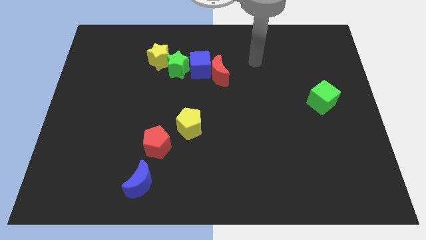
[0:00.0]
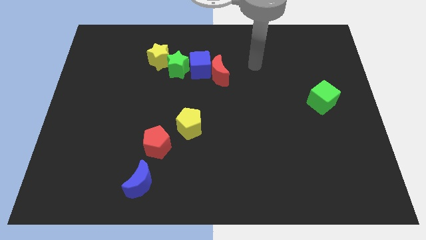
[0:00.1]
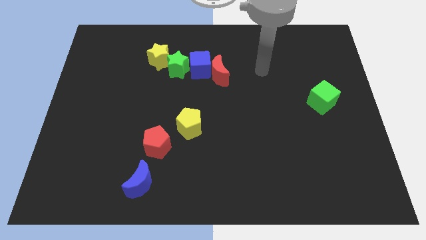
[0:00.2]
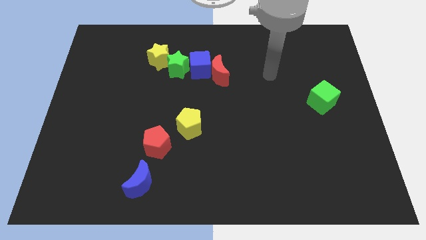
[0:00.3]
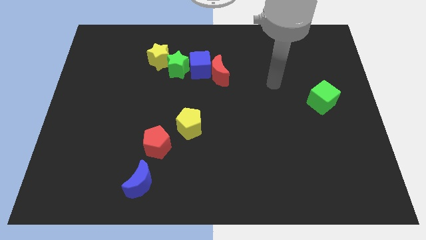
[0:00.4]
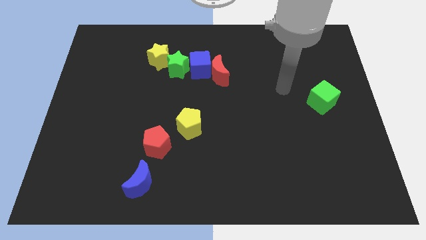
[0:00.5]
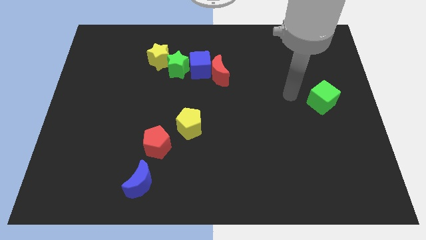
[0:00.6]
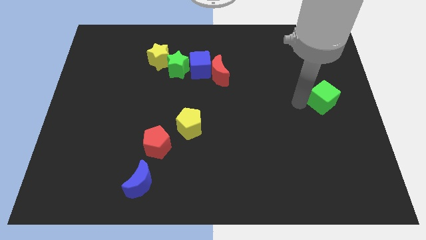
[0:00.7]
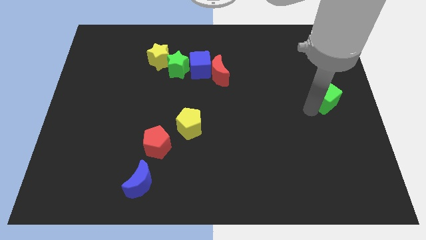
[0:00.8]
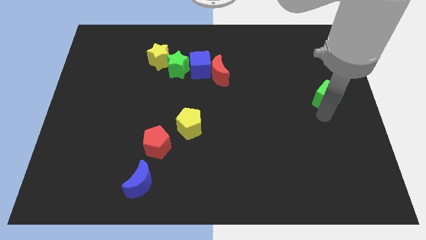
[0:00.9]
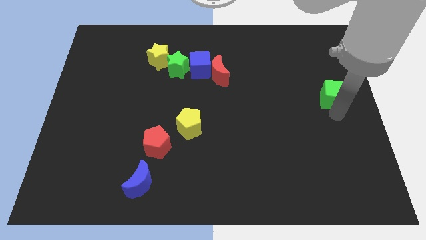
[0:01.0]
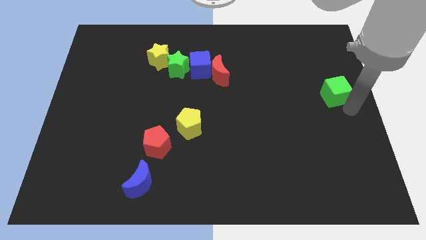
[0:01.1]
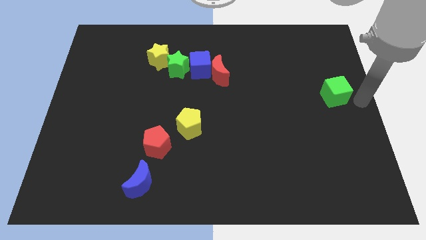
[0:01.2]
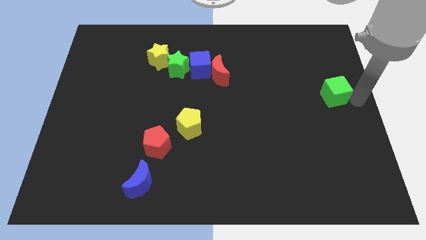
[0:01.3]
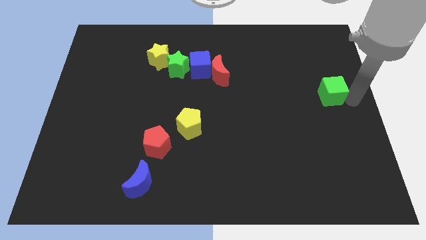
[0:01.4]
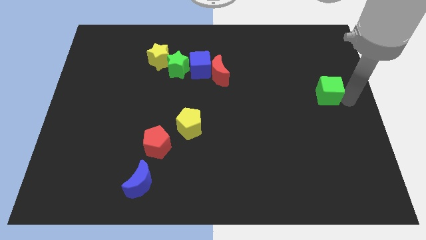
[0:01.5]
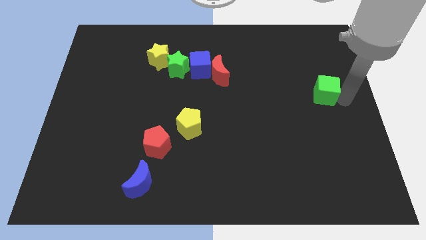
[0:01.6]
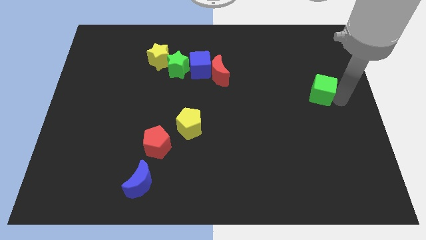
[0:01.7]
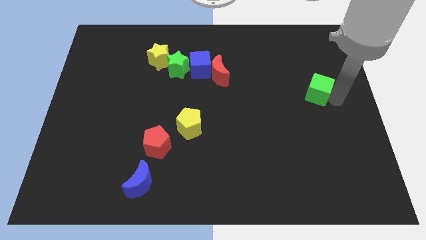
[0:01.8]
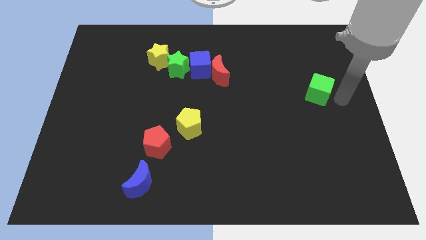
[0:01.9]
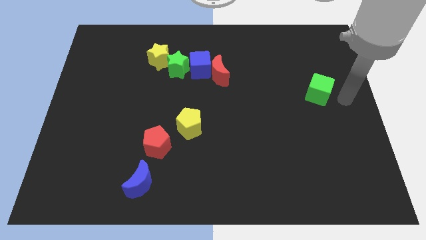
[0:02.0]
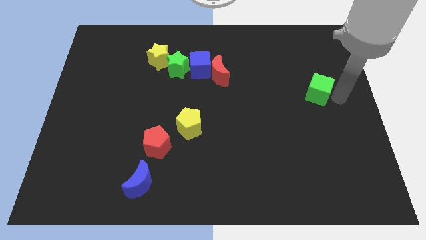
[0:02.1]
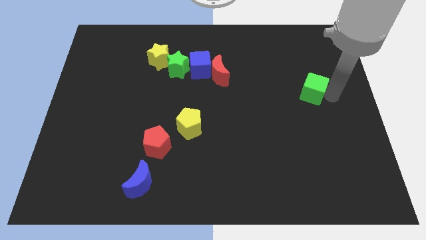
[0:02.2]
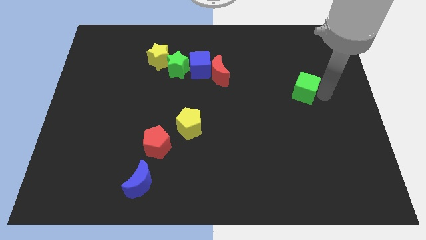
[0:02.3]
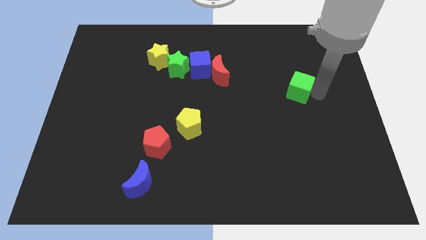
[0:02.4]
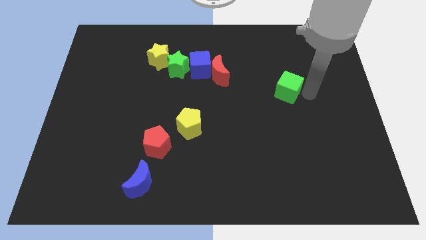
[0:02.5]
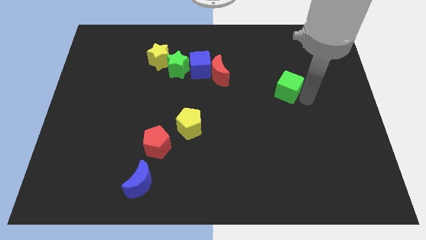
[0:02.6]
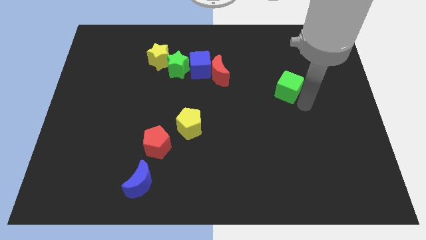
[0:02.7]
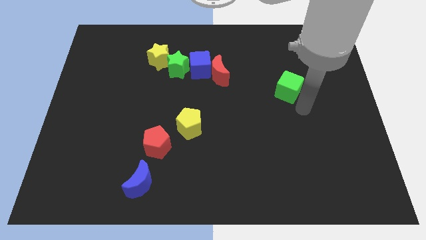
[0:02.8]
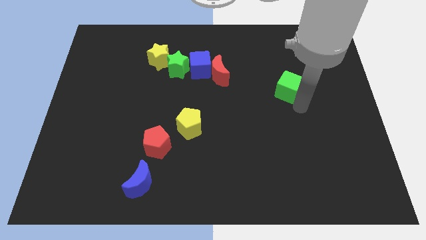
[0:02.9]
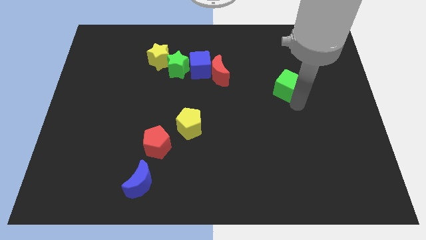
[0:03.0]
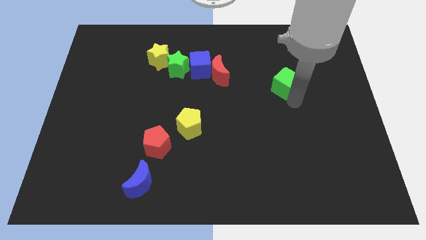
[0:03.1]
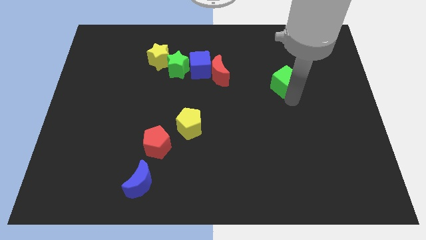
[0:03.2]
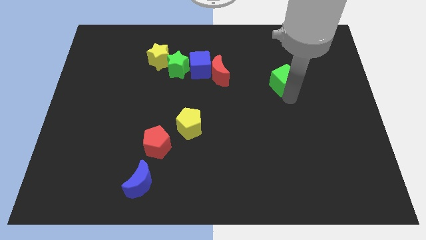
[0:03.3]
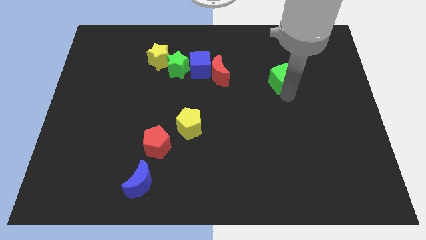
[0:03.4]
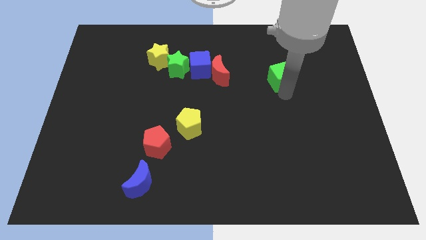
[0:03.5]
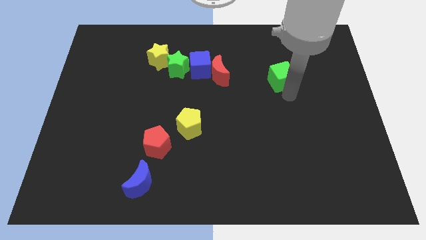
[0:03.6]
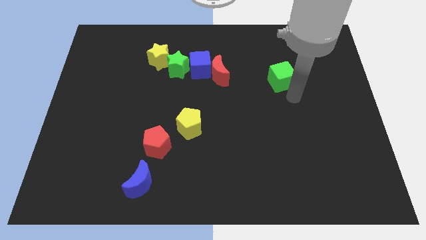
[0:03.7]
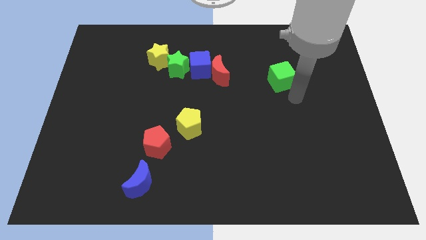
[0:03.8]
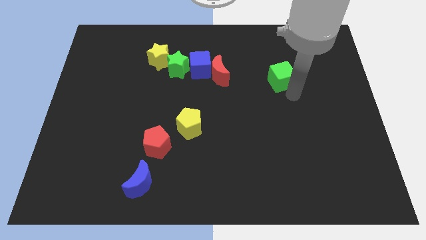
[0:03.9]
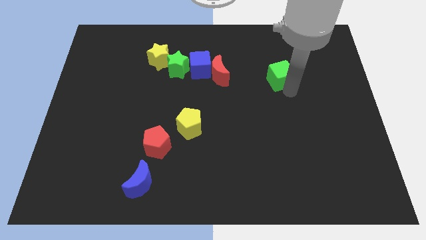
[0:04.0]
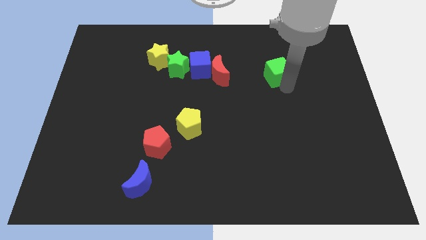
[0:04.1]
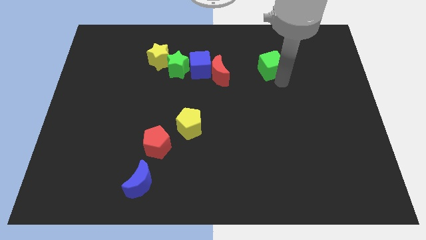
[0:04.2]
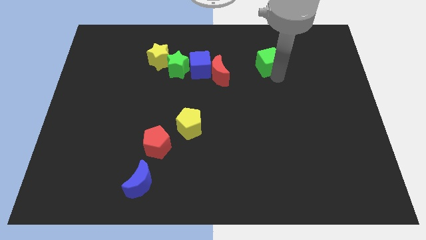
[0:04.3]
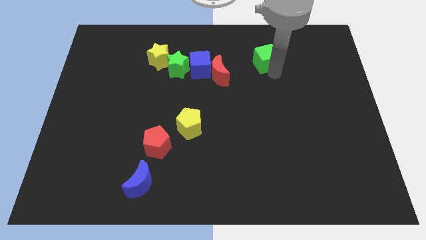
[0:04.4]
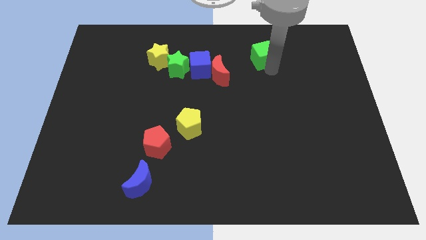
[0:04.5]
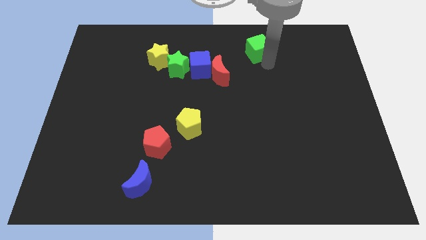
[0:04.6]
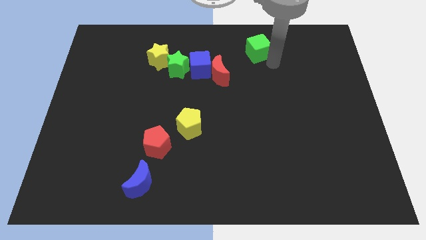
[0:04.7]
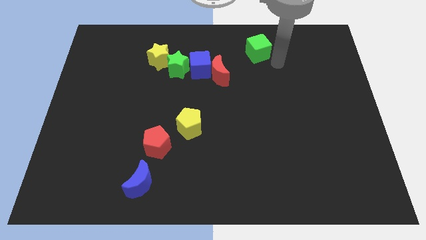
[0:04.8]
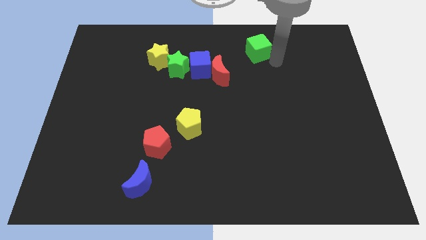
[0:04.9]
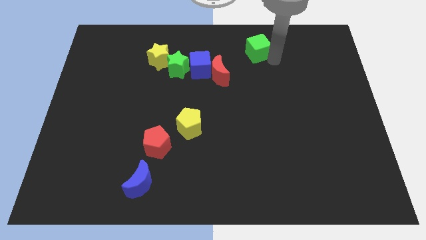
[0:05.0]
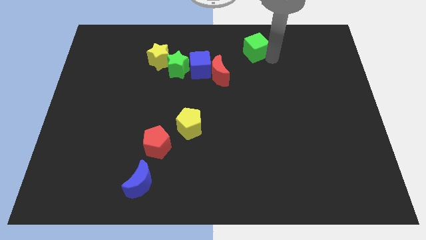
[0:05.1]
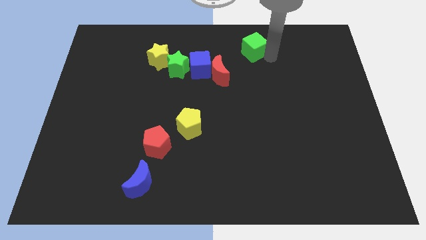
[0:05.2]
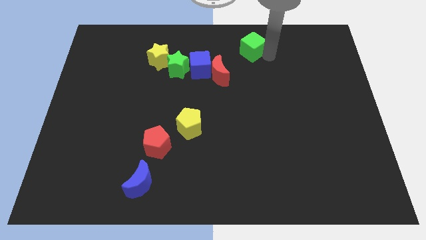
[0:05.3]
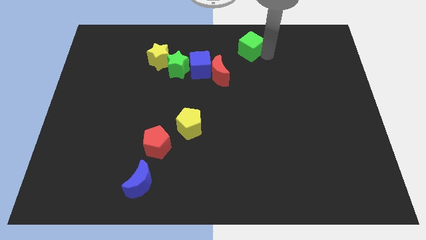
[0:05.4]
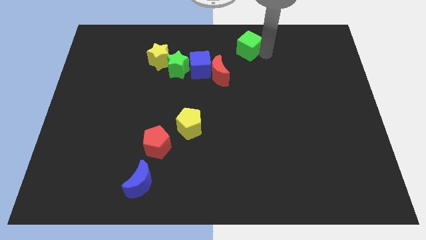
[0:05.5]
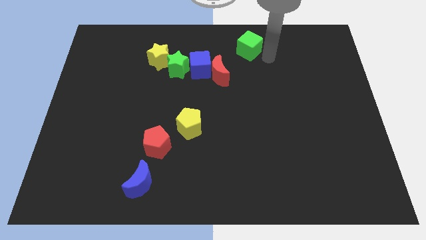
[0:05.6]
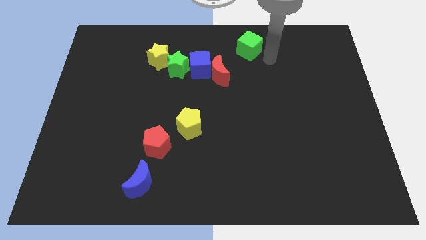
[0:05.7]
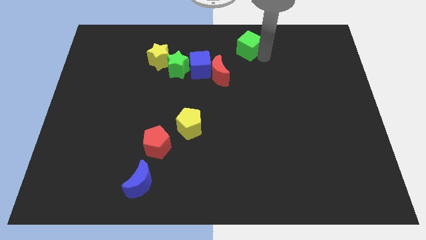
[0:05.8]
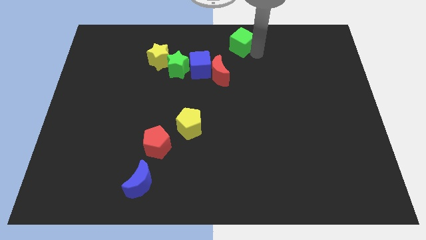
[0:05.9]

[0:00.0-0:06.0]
move the green cube to the top side

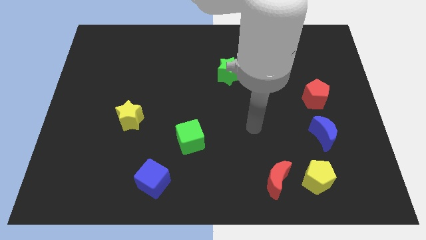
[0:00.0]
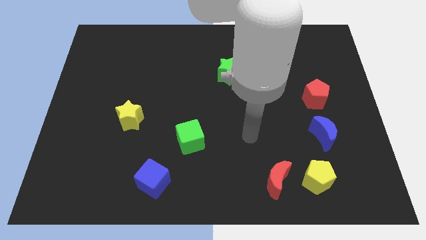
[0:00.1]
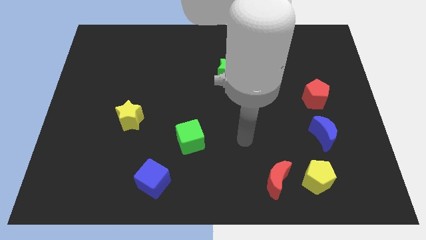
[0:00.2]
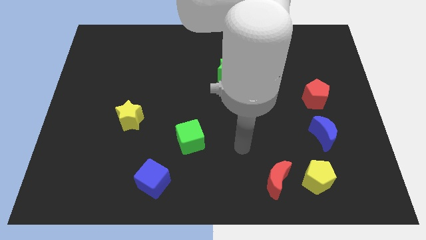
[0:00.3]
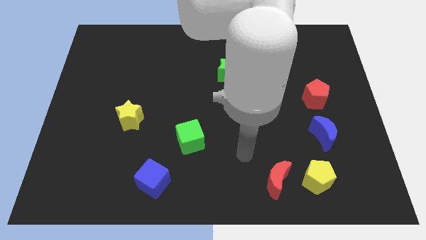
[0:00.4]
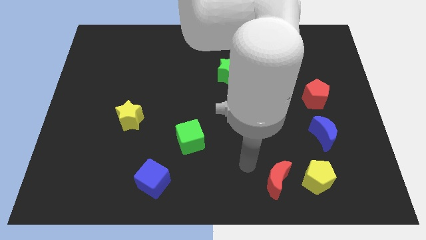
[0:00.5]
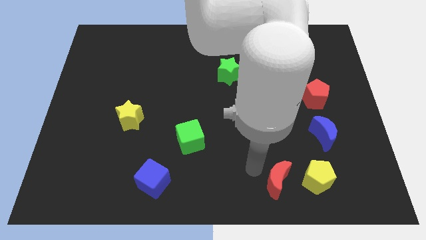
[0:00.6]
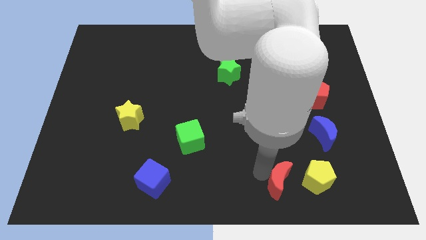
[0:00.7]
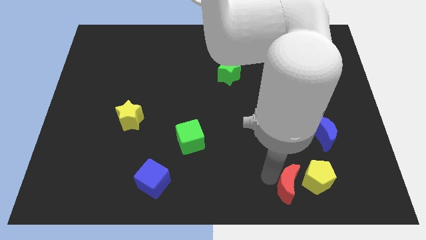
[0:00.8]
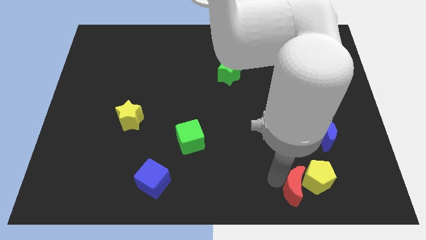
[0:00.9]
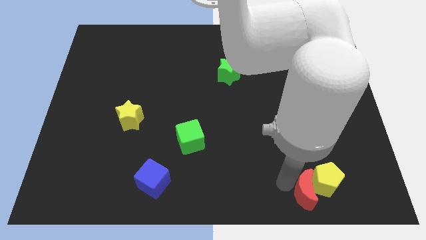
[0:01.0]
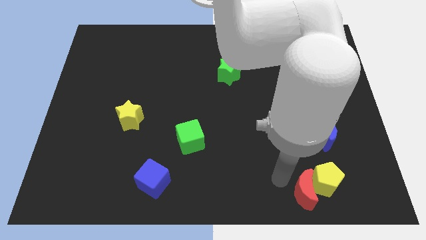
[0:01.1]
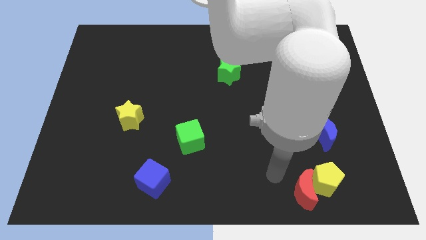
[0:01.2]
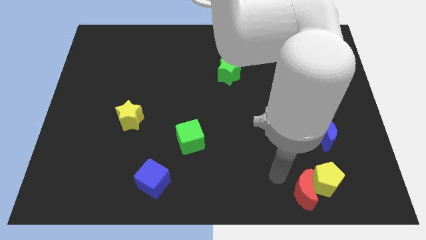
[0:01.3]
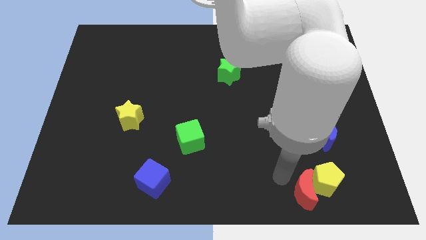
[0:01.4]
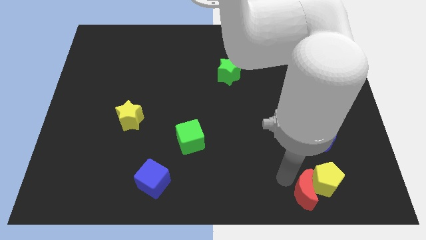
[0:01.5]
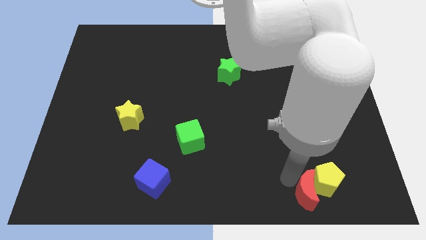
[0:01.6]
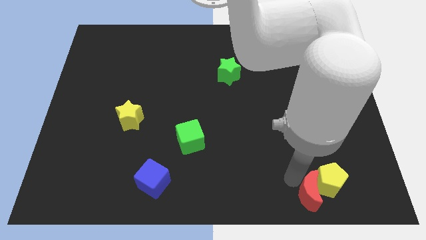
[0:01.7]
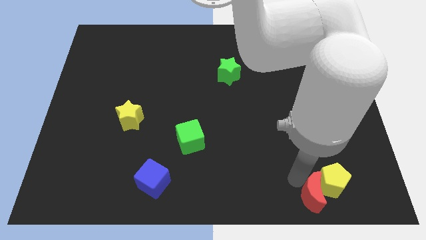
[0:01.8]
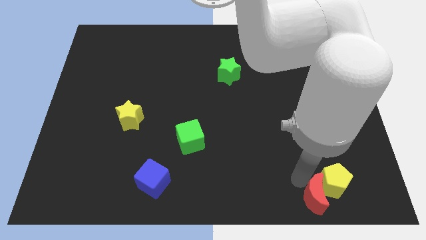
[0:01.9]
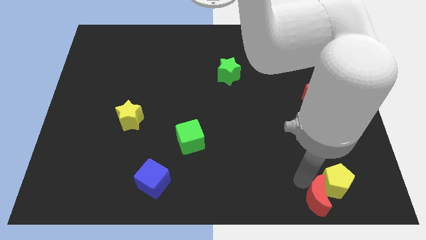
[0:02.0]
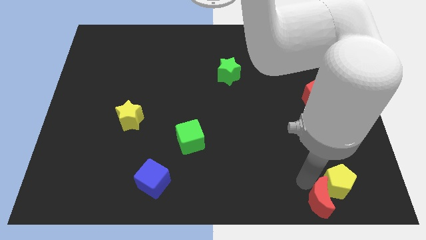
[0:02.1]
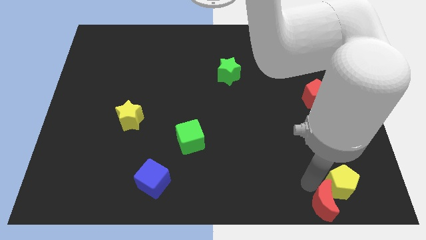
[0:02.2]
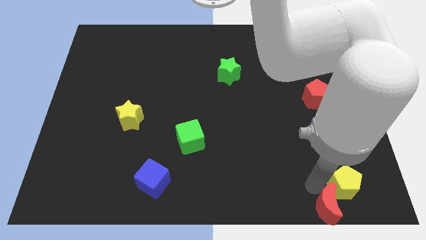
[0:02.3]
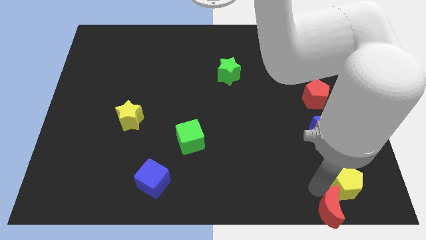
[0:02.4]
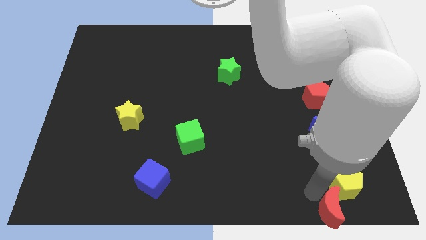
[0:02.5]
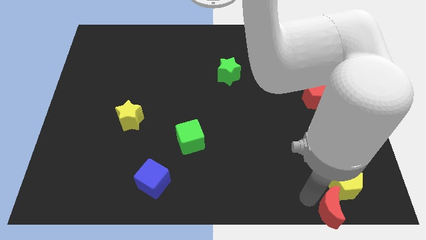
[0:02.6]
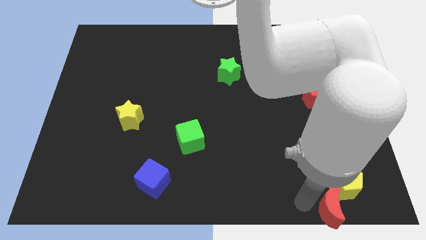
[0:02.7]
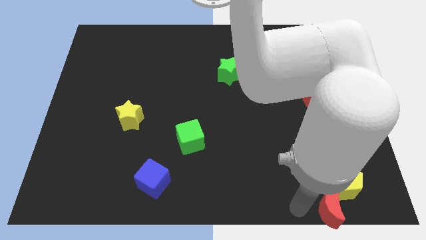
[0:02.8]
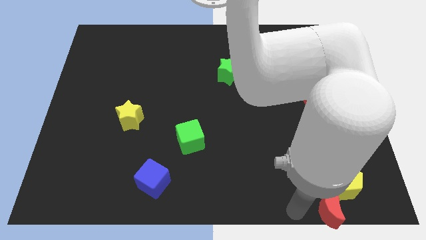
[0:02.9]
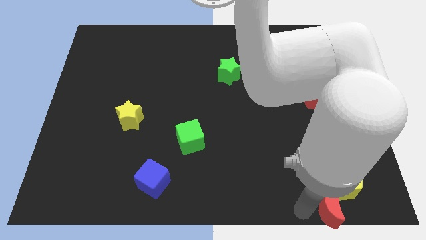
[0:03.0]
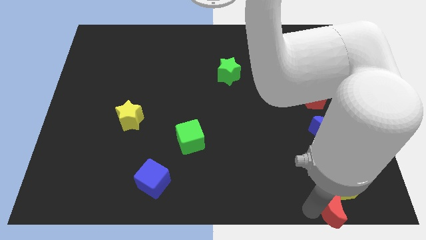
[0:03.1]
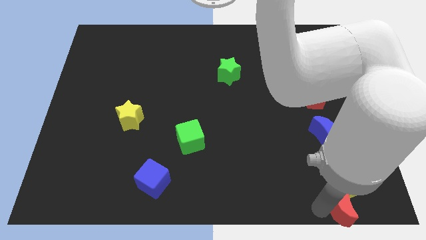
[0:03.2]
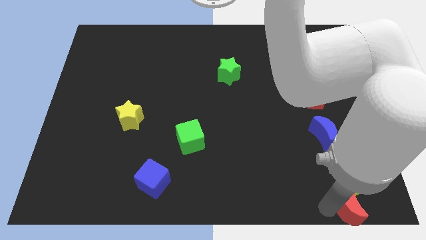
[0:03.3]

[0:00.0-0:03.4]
move the red moon to the bottom right of the board
